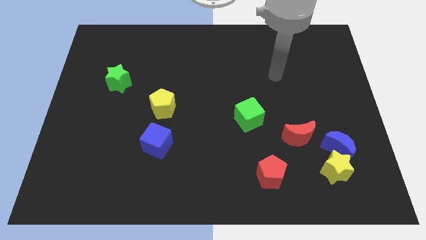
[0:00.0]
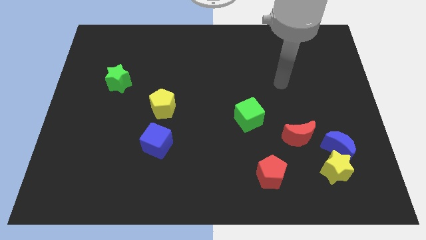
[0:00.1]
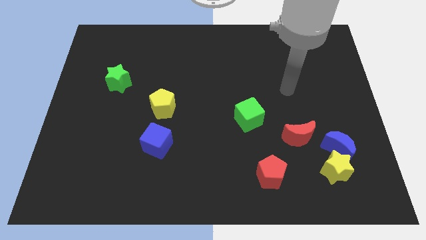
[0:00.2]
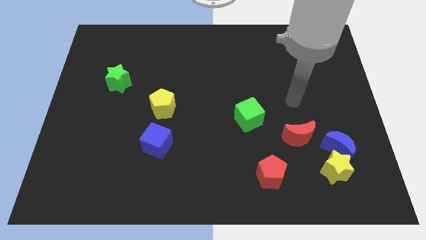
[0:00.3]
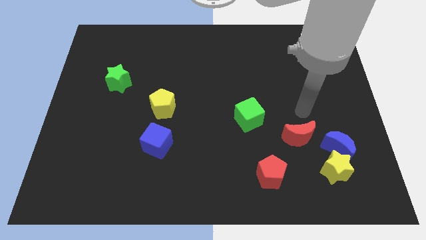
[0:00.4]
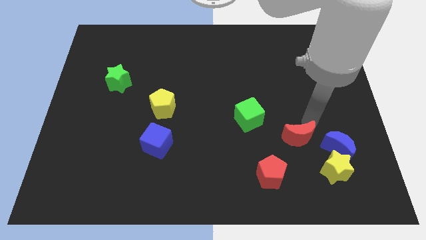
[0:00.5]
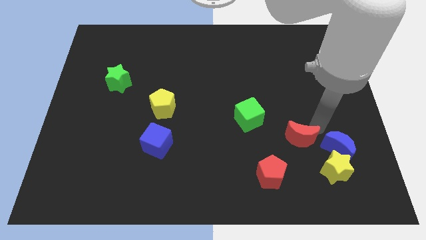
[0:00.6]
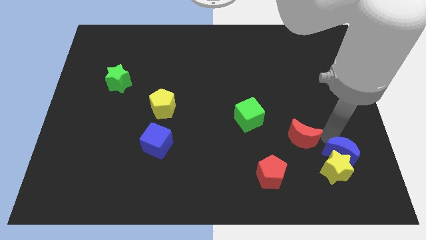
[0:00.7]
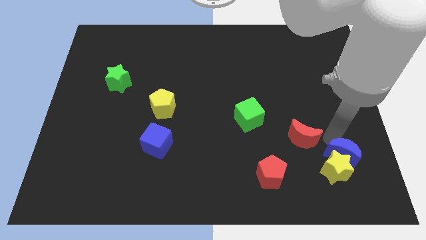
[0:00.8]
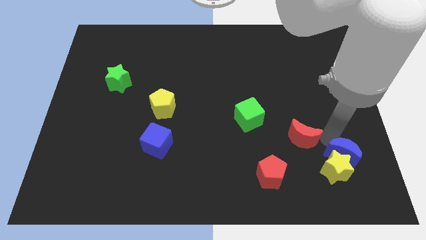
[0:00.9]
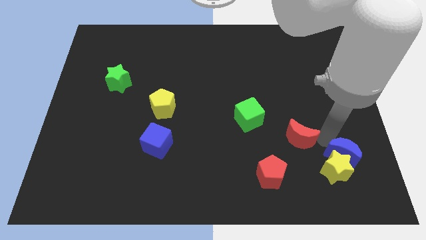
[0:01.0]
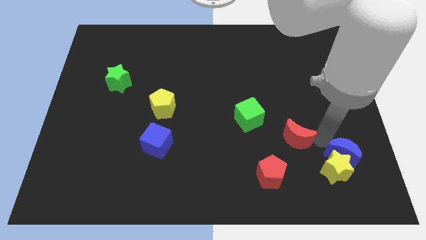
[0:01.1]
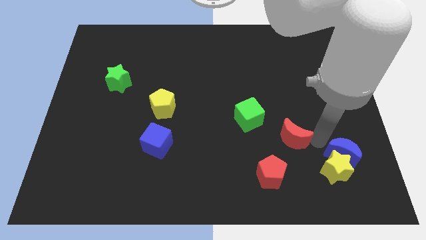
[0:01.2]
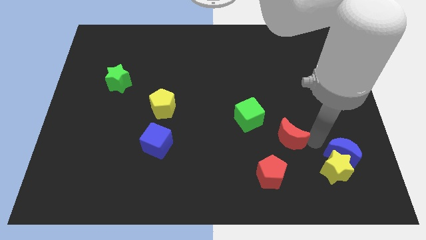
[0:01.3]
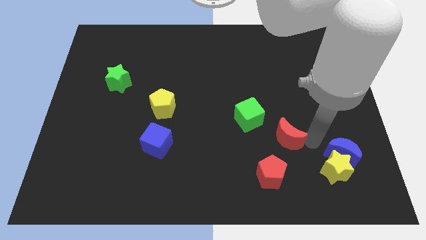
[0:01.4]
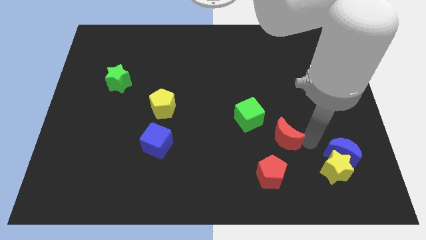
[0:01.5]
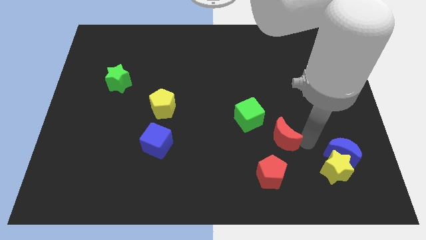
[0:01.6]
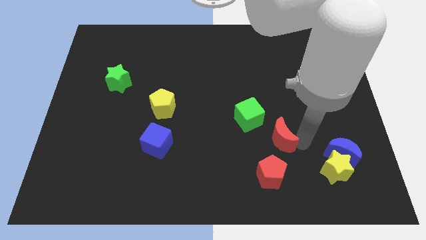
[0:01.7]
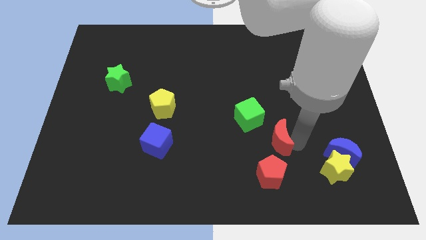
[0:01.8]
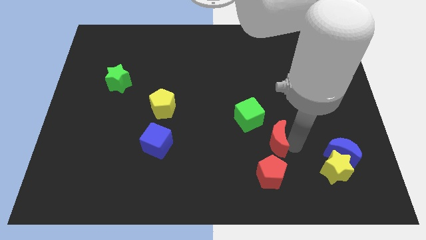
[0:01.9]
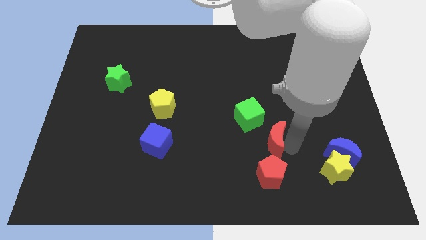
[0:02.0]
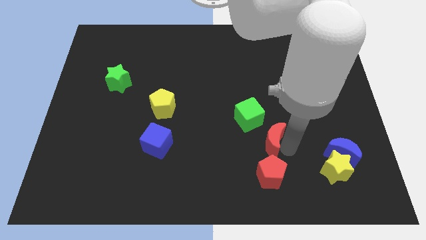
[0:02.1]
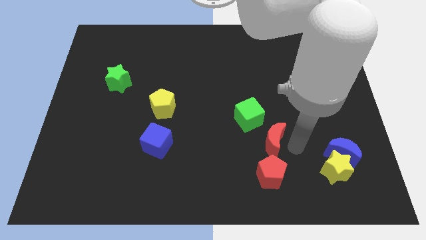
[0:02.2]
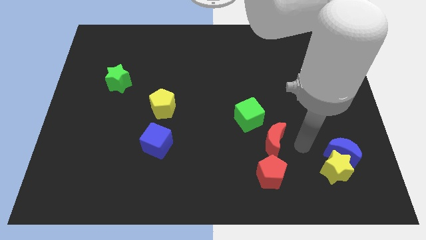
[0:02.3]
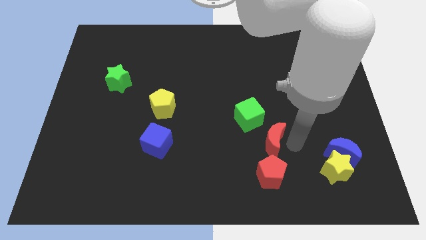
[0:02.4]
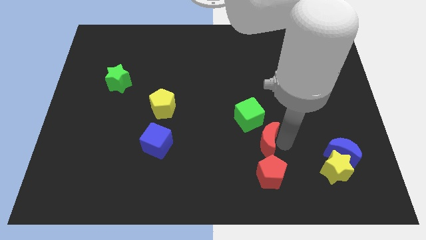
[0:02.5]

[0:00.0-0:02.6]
slightly move the red moon left

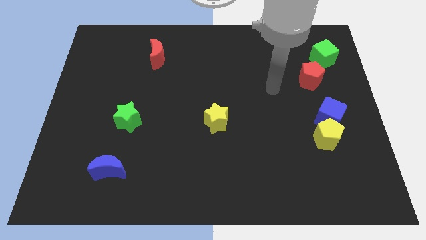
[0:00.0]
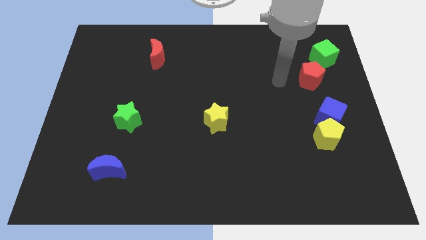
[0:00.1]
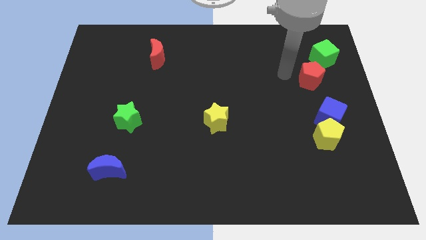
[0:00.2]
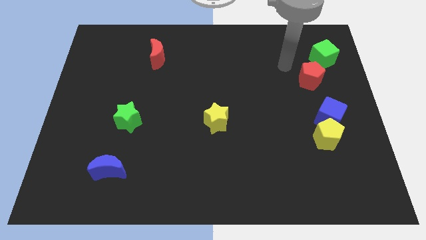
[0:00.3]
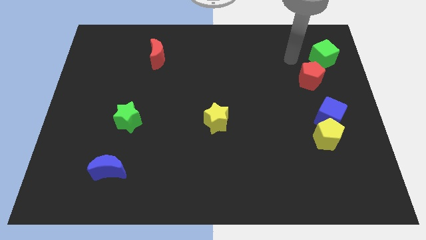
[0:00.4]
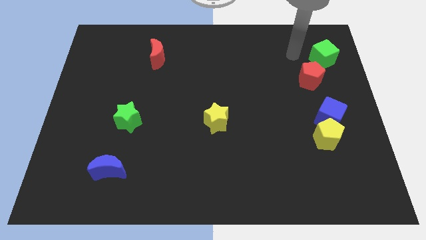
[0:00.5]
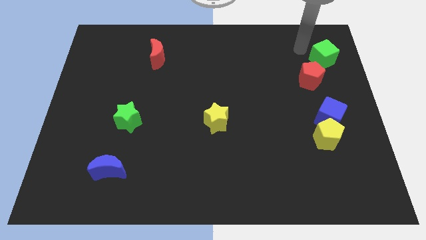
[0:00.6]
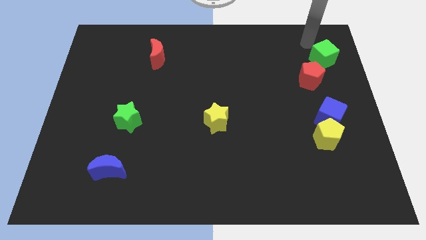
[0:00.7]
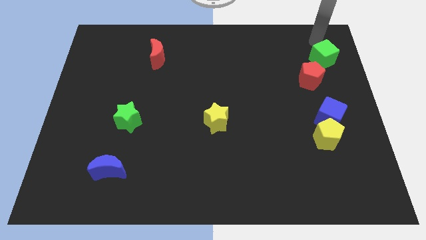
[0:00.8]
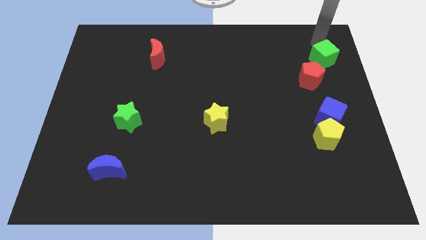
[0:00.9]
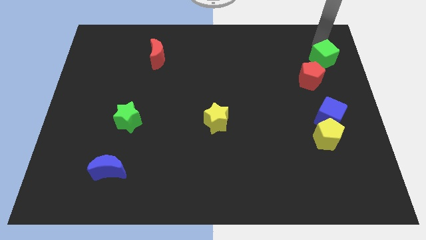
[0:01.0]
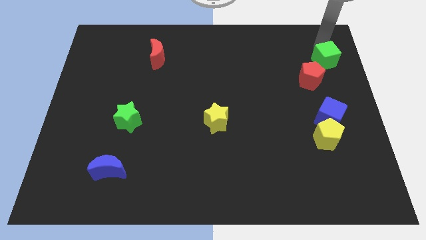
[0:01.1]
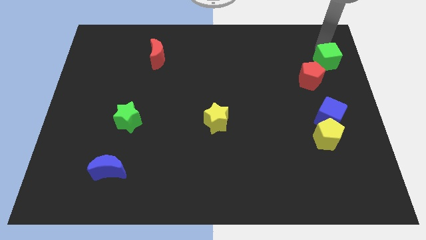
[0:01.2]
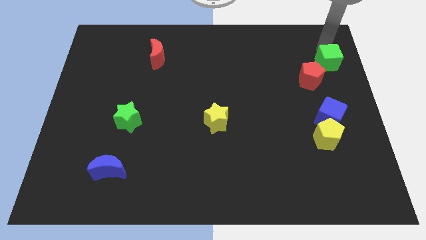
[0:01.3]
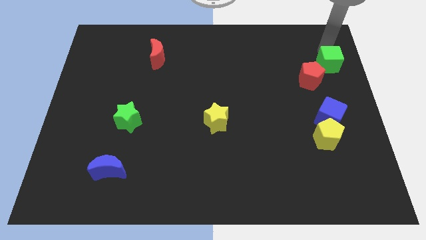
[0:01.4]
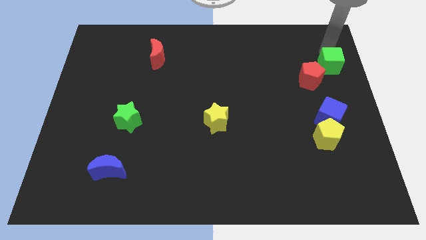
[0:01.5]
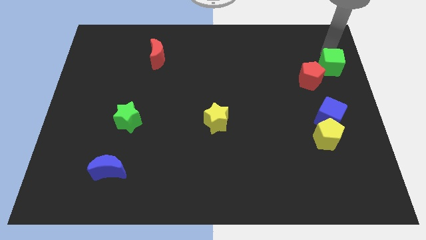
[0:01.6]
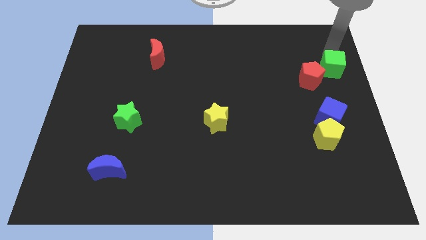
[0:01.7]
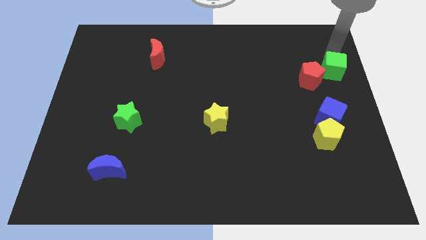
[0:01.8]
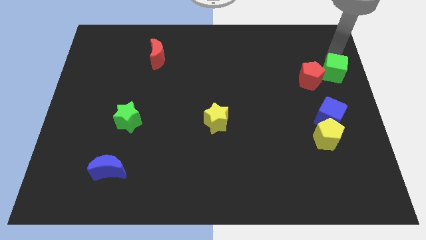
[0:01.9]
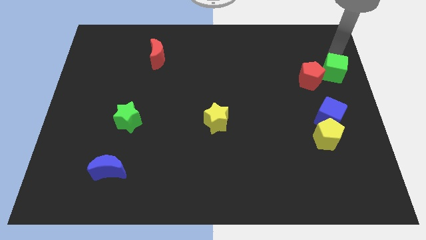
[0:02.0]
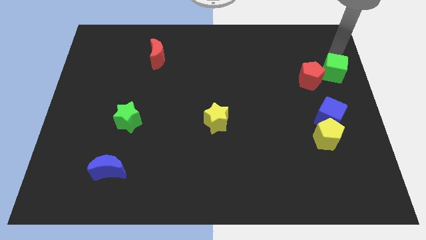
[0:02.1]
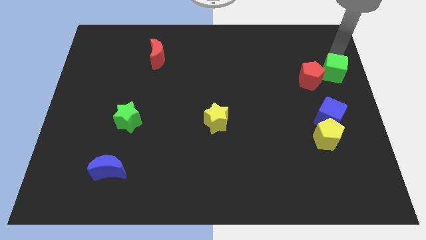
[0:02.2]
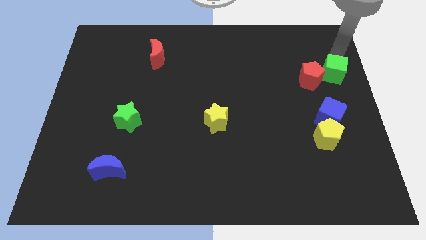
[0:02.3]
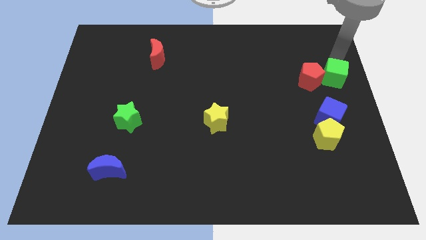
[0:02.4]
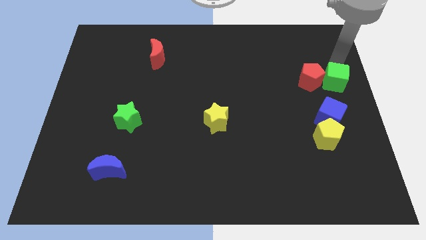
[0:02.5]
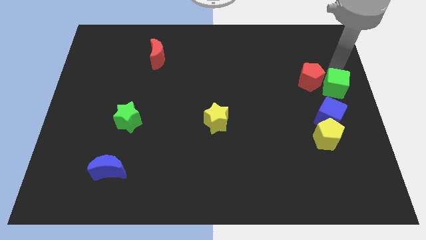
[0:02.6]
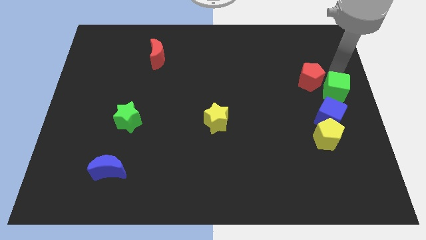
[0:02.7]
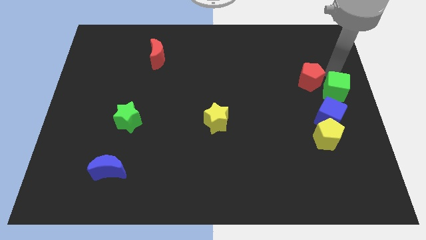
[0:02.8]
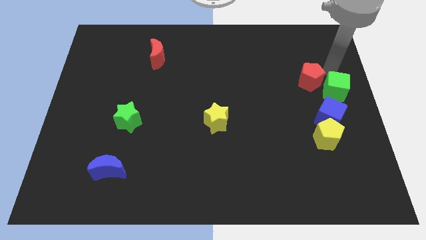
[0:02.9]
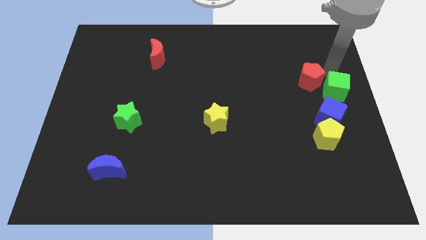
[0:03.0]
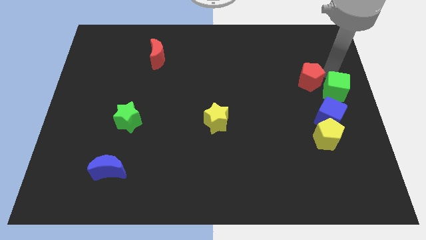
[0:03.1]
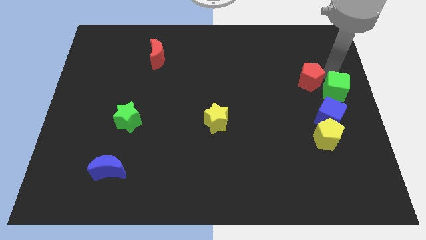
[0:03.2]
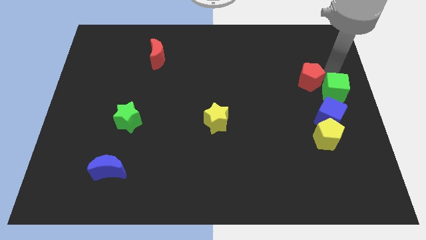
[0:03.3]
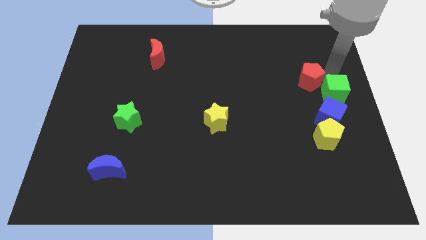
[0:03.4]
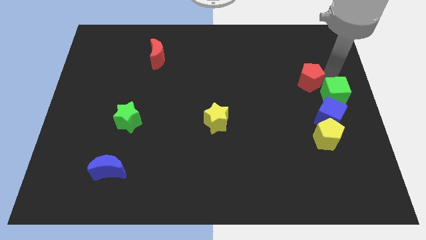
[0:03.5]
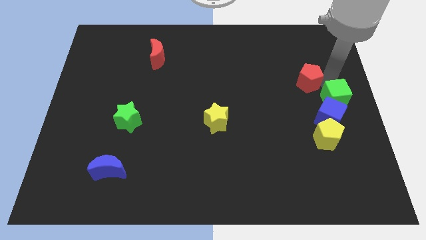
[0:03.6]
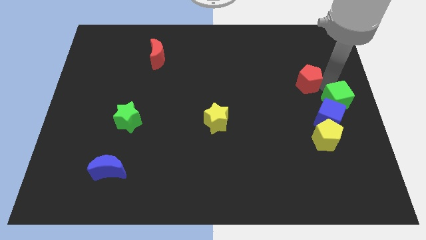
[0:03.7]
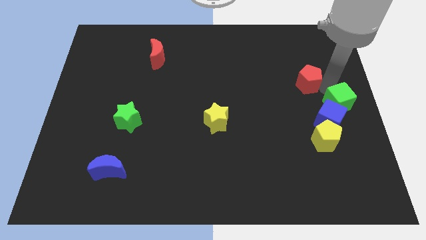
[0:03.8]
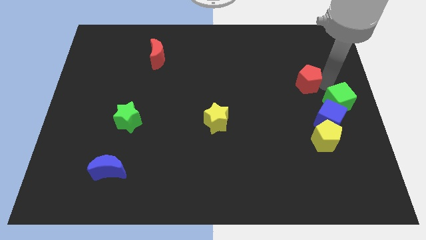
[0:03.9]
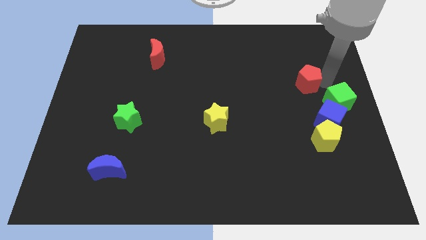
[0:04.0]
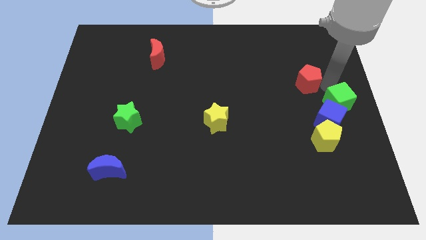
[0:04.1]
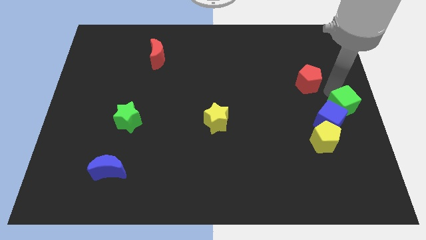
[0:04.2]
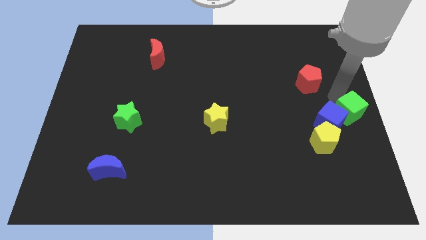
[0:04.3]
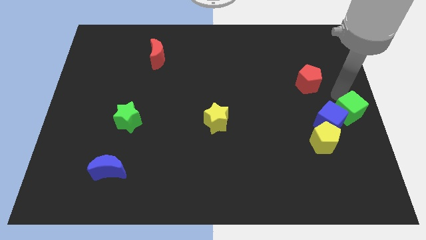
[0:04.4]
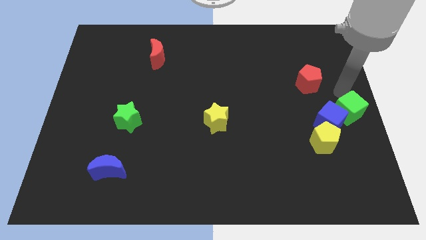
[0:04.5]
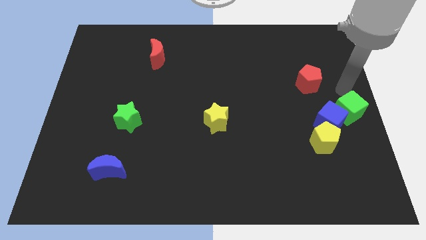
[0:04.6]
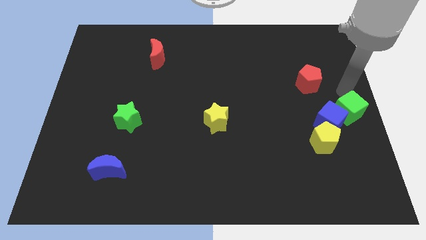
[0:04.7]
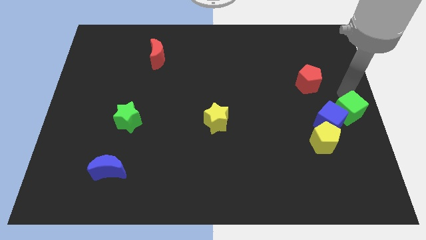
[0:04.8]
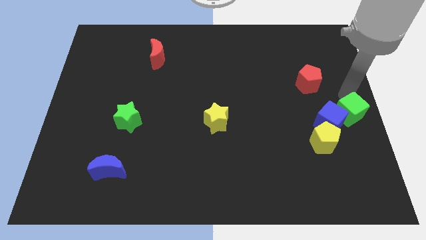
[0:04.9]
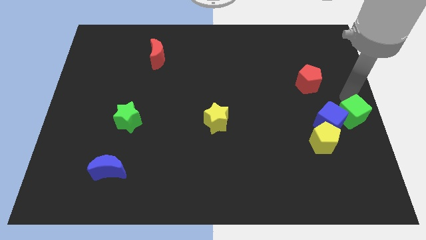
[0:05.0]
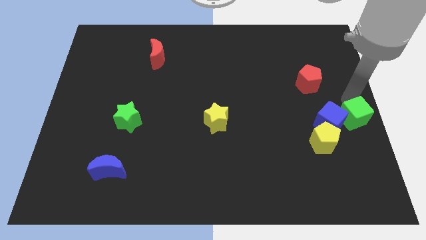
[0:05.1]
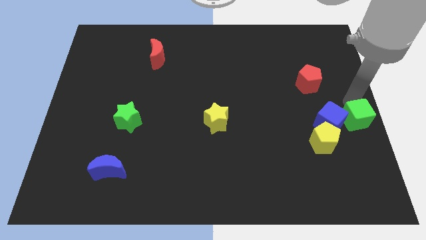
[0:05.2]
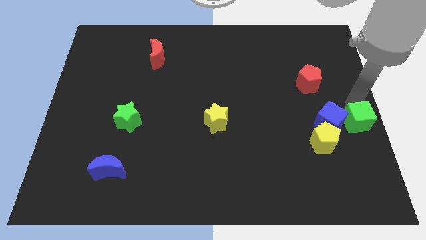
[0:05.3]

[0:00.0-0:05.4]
push the green cube downwards
